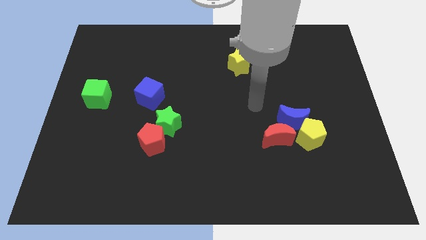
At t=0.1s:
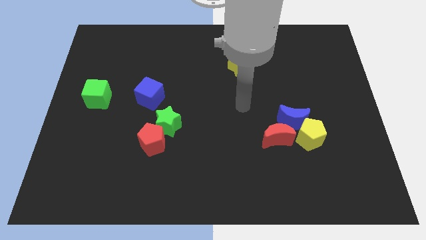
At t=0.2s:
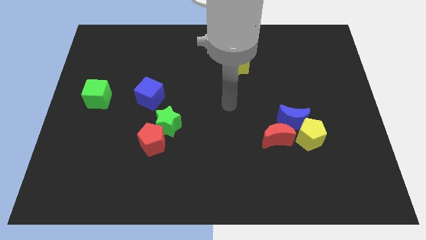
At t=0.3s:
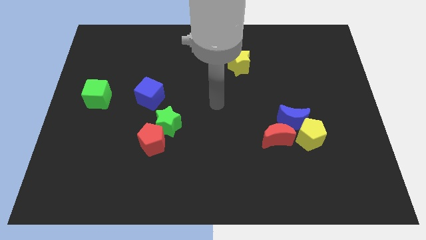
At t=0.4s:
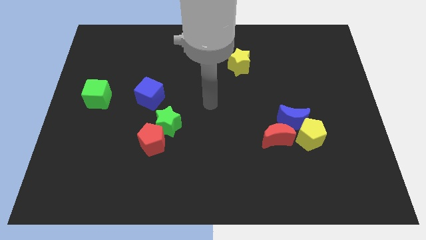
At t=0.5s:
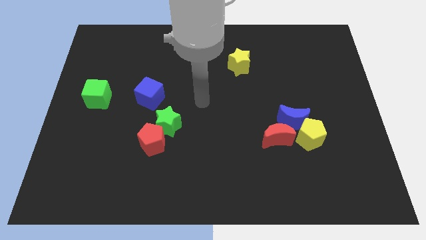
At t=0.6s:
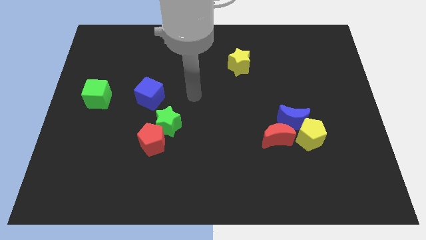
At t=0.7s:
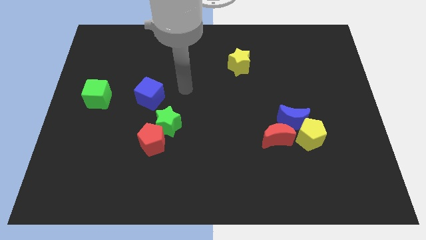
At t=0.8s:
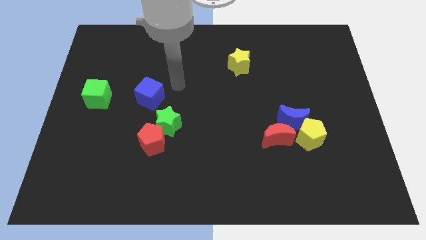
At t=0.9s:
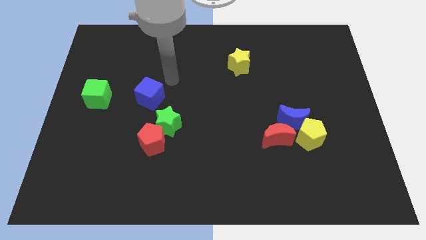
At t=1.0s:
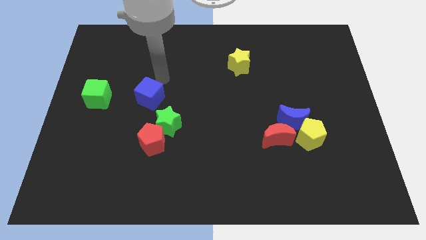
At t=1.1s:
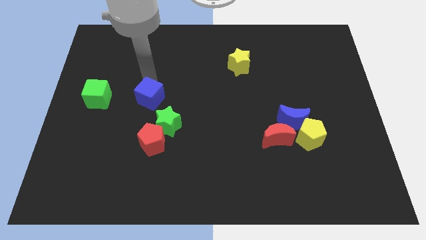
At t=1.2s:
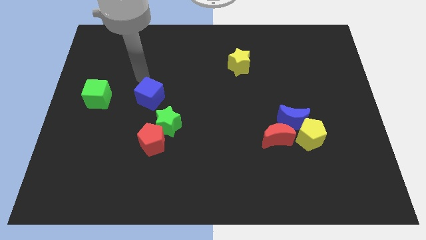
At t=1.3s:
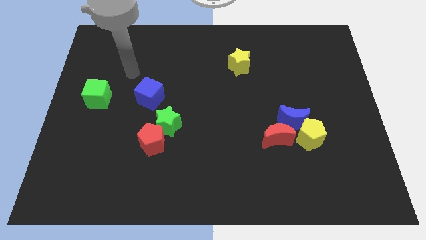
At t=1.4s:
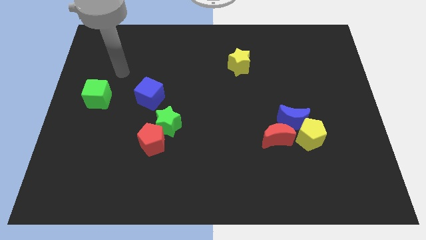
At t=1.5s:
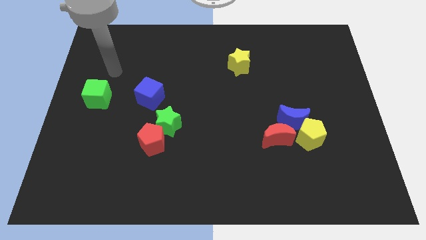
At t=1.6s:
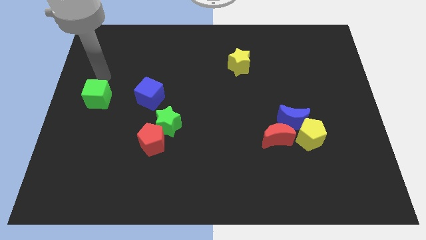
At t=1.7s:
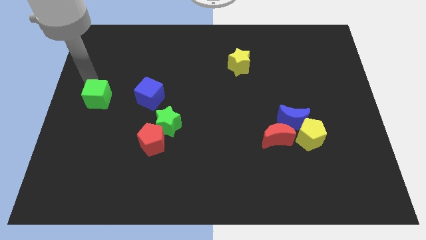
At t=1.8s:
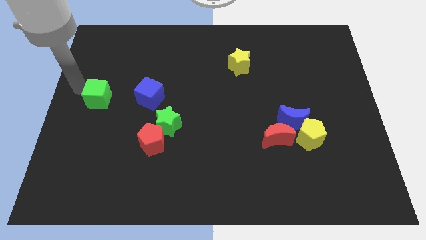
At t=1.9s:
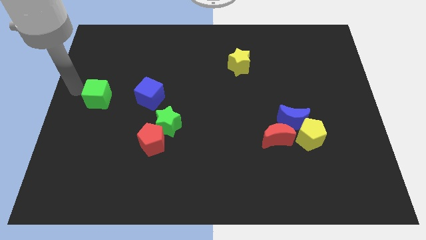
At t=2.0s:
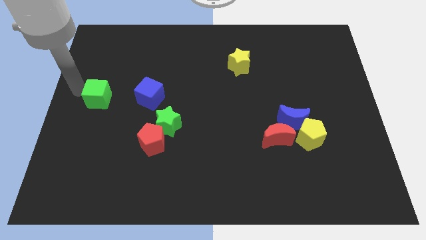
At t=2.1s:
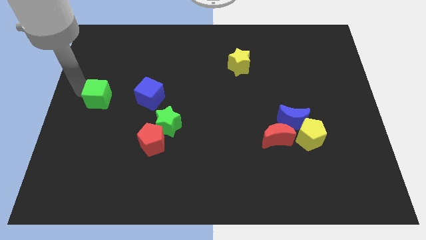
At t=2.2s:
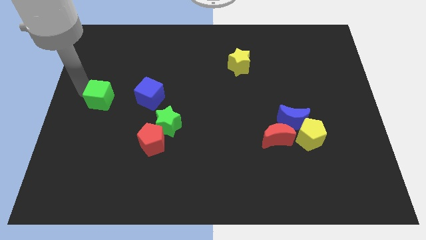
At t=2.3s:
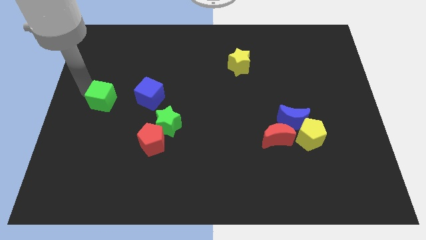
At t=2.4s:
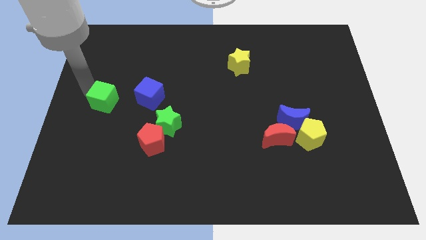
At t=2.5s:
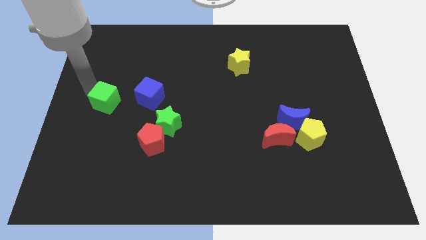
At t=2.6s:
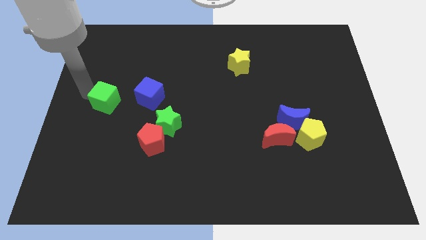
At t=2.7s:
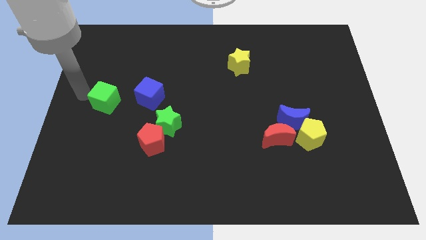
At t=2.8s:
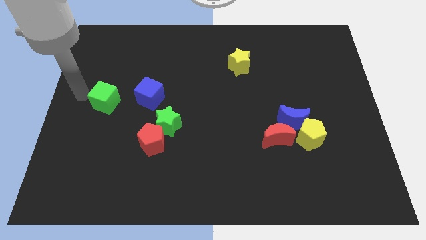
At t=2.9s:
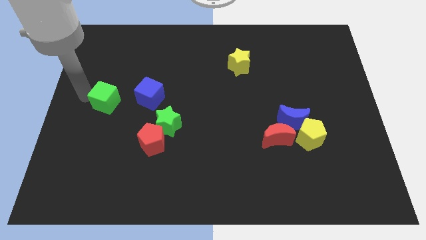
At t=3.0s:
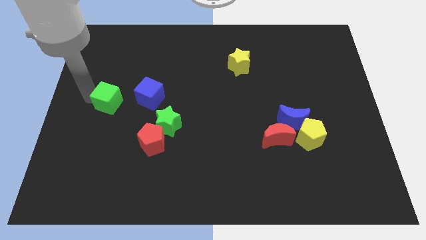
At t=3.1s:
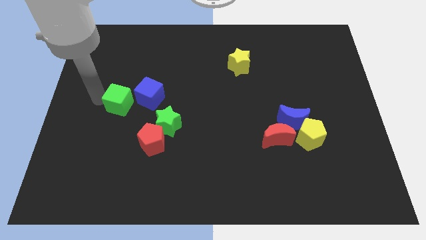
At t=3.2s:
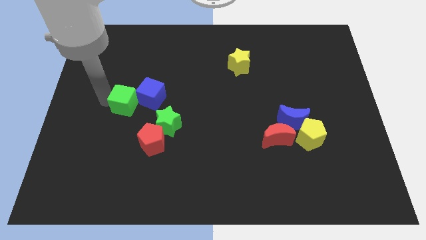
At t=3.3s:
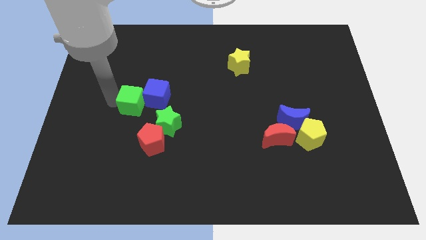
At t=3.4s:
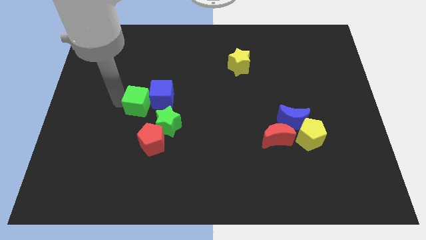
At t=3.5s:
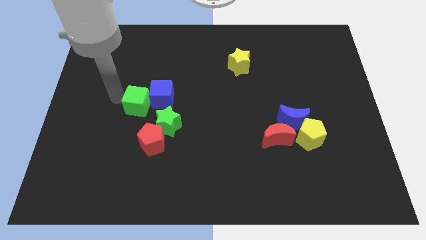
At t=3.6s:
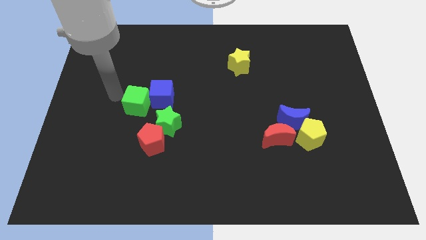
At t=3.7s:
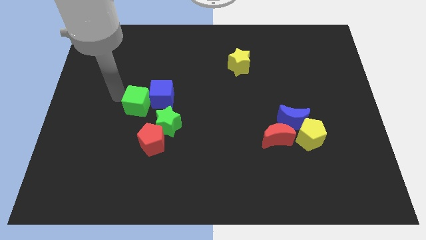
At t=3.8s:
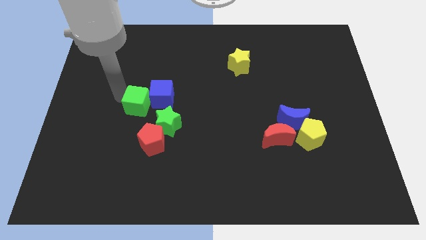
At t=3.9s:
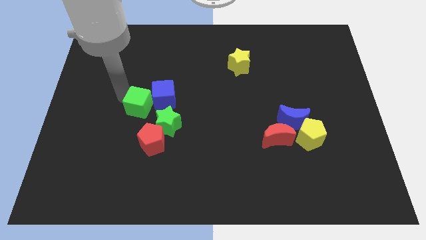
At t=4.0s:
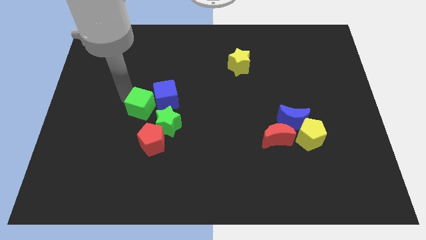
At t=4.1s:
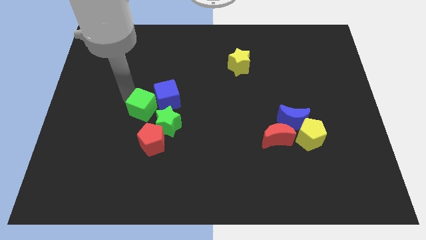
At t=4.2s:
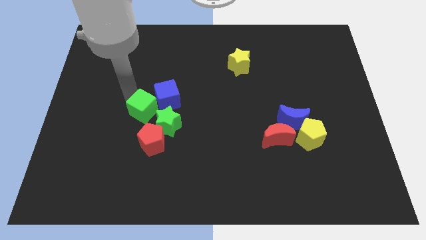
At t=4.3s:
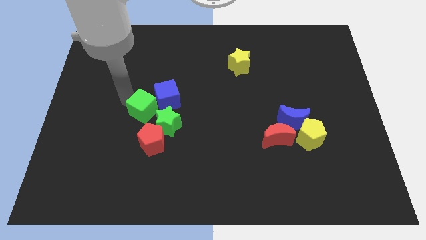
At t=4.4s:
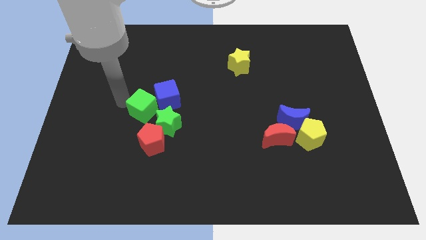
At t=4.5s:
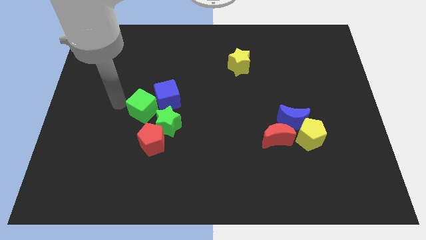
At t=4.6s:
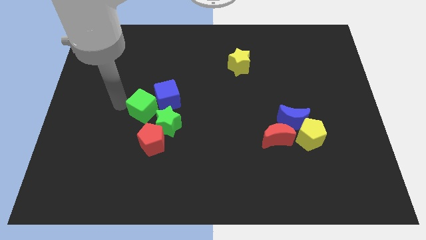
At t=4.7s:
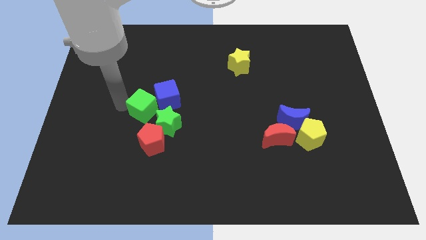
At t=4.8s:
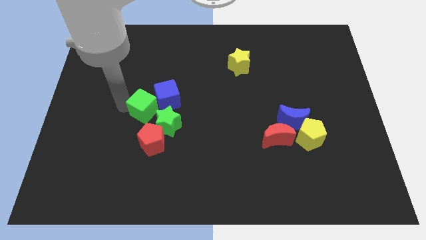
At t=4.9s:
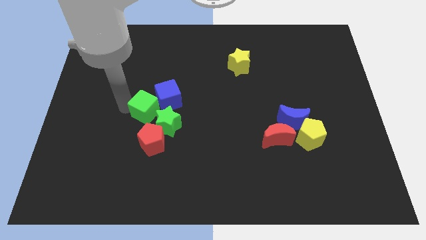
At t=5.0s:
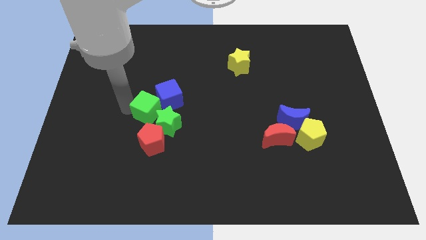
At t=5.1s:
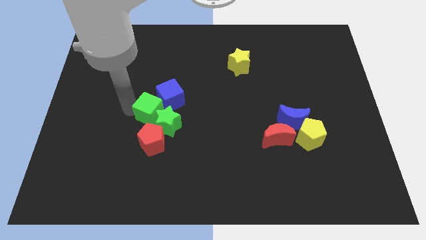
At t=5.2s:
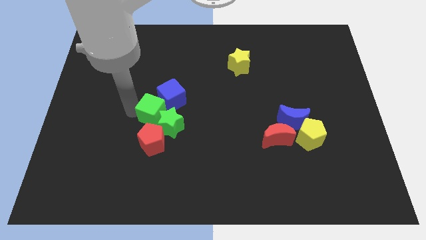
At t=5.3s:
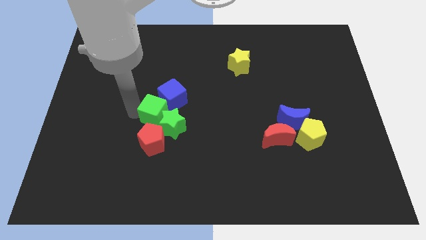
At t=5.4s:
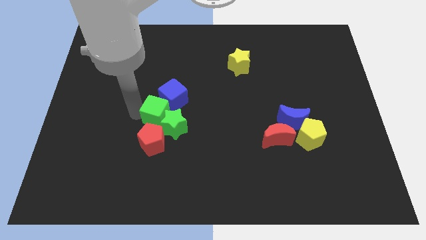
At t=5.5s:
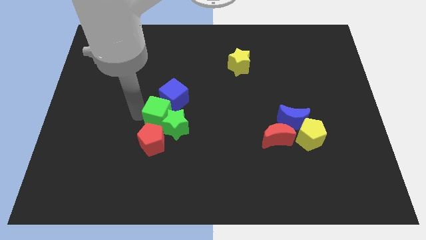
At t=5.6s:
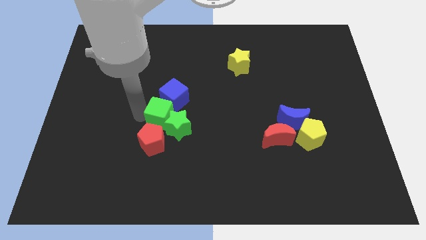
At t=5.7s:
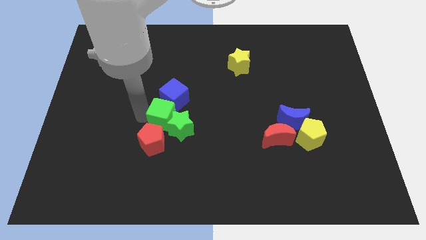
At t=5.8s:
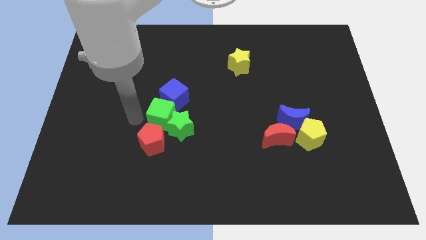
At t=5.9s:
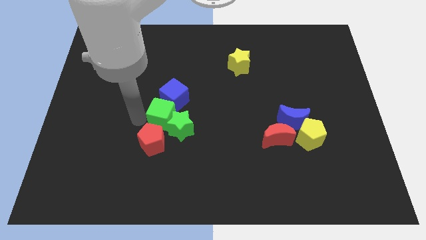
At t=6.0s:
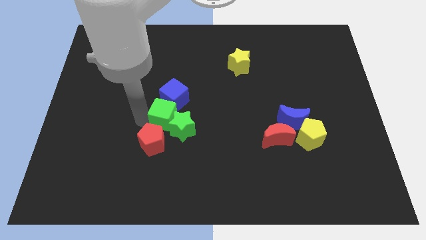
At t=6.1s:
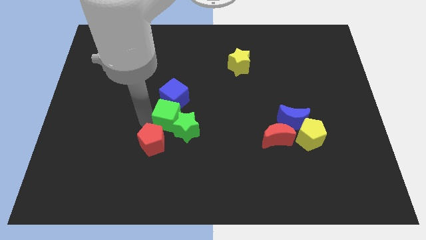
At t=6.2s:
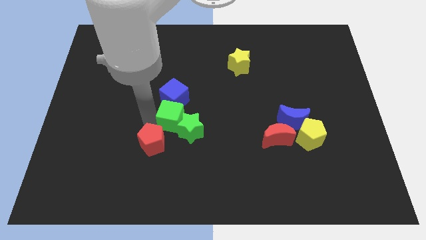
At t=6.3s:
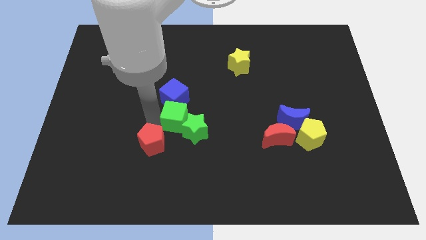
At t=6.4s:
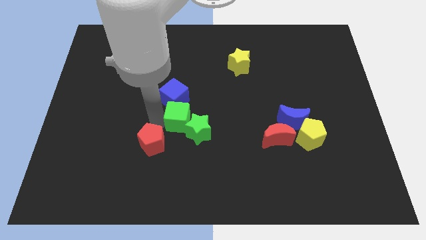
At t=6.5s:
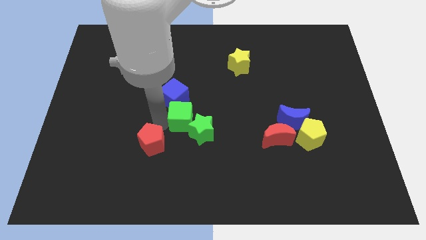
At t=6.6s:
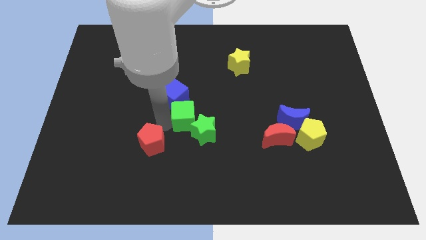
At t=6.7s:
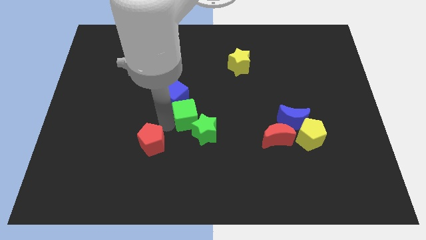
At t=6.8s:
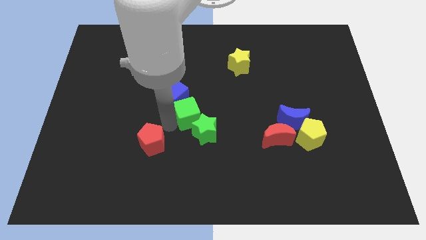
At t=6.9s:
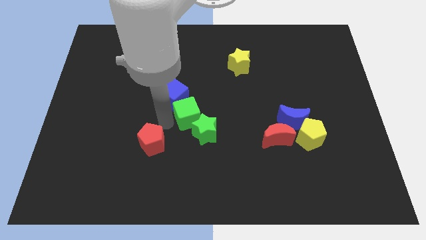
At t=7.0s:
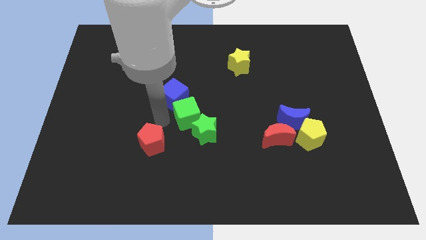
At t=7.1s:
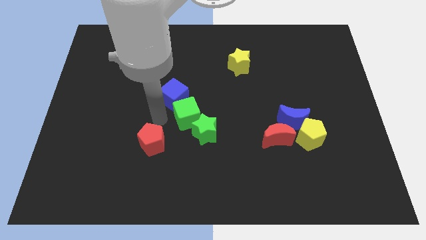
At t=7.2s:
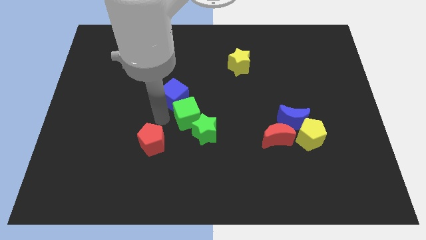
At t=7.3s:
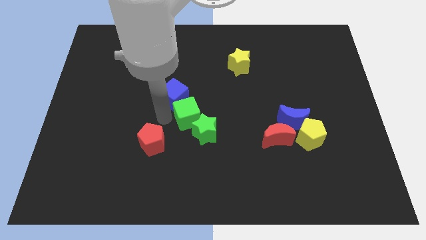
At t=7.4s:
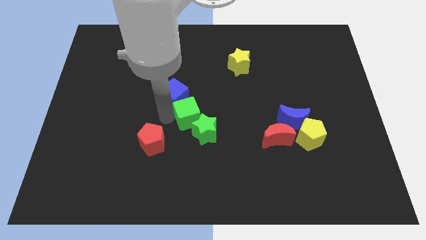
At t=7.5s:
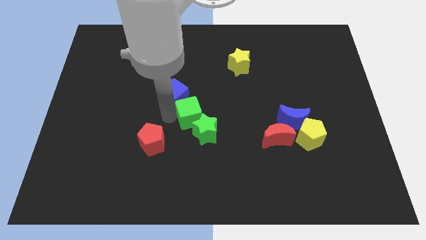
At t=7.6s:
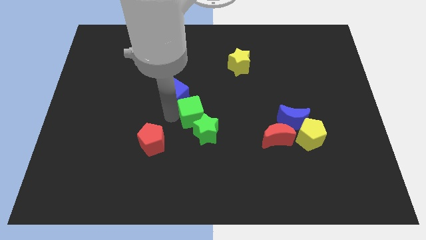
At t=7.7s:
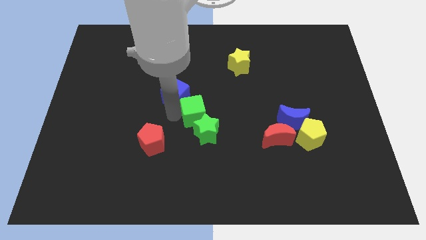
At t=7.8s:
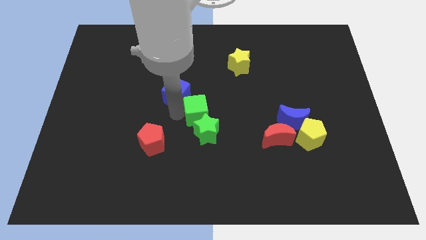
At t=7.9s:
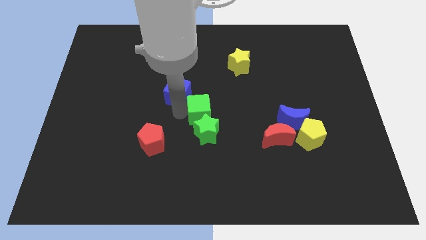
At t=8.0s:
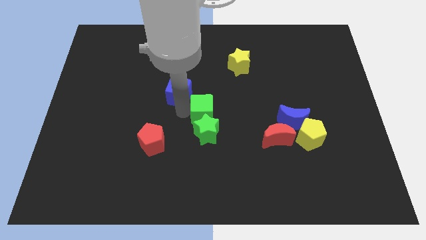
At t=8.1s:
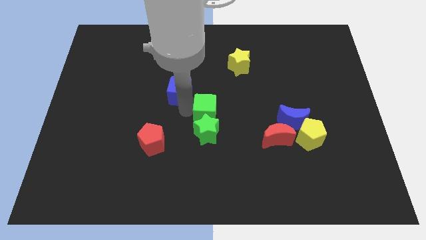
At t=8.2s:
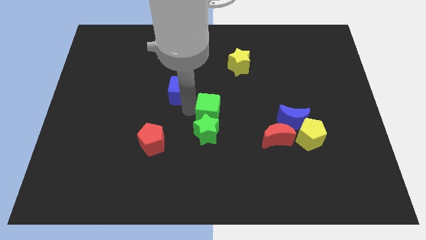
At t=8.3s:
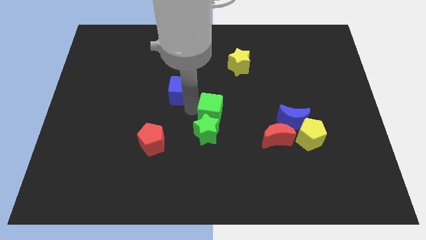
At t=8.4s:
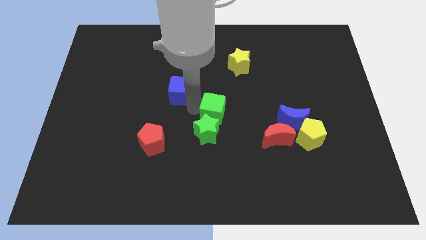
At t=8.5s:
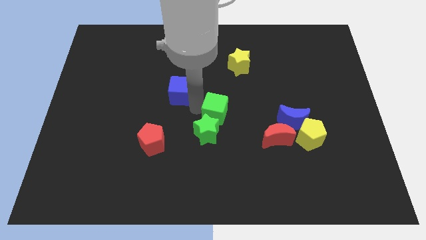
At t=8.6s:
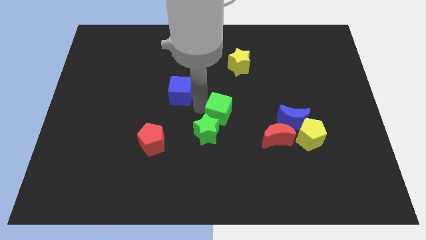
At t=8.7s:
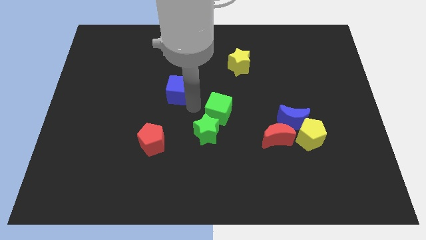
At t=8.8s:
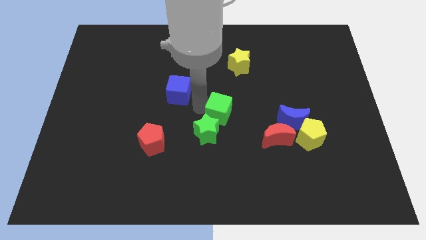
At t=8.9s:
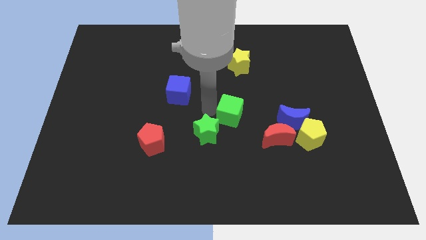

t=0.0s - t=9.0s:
move the green cube diagonally up and to the left of the red moon
